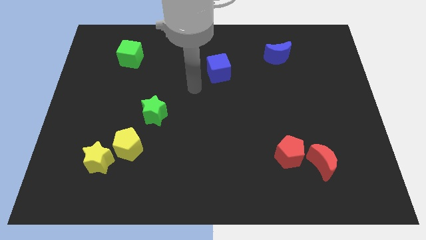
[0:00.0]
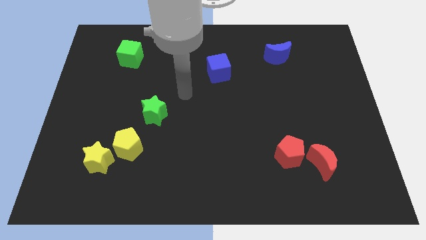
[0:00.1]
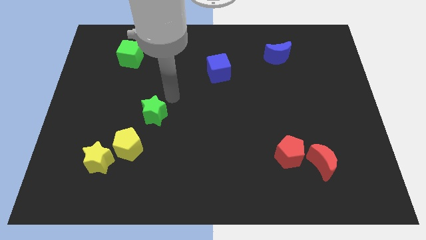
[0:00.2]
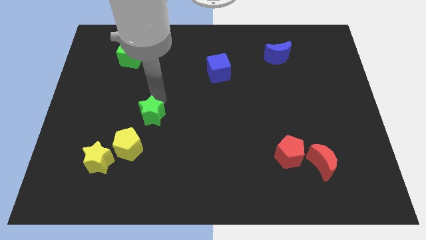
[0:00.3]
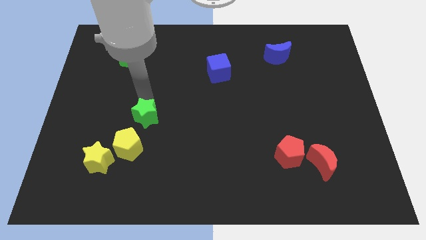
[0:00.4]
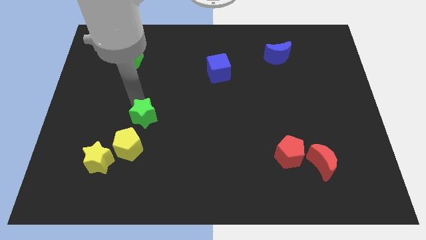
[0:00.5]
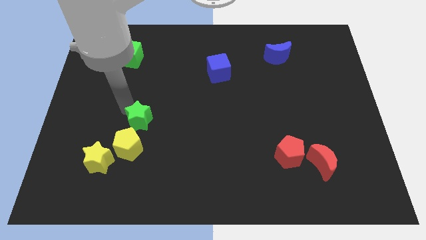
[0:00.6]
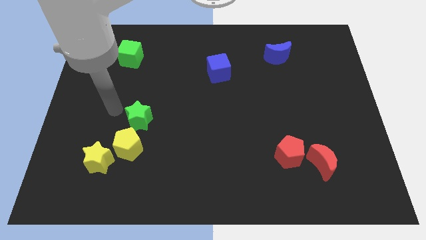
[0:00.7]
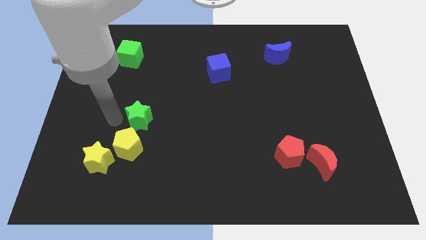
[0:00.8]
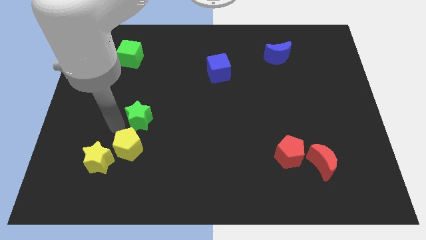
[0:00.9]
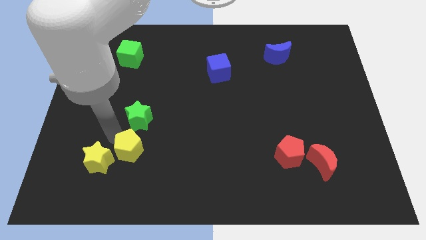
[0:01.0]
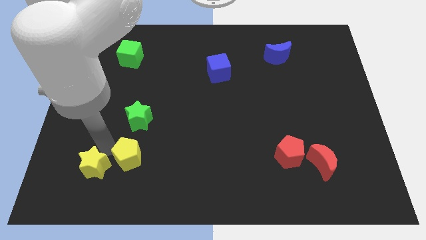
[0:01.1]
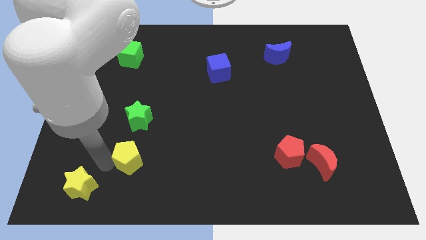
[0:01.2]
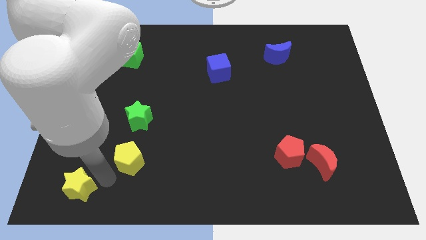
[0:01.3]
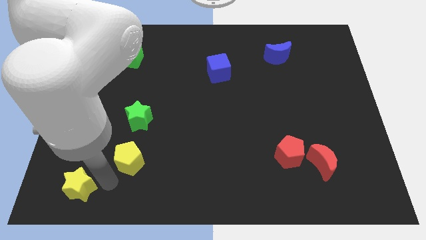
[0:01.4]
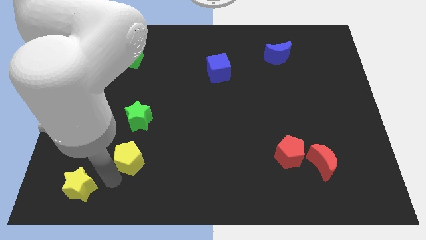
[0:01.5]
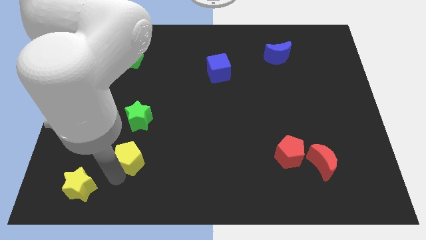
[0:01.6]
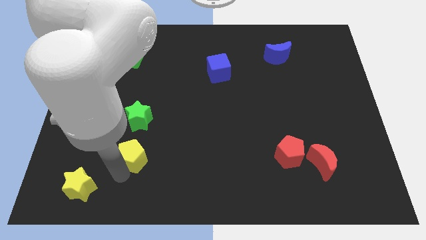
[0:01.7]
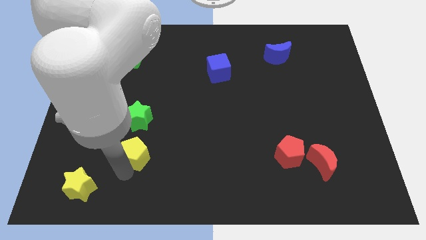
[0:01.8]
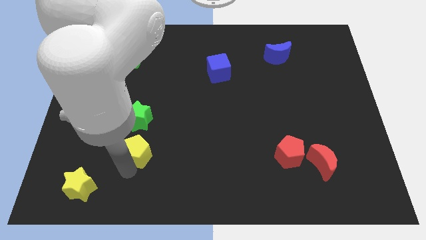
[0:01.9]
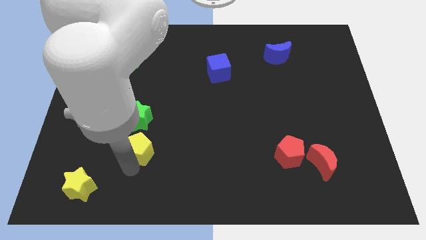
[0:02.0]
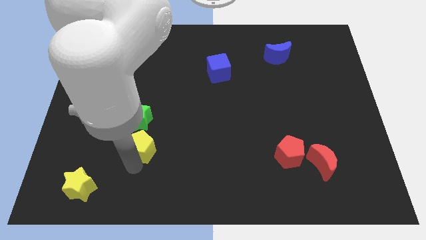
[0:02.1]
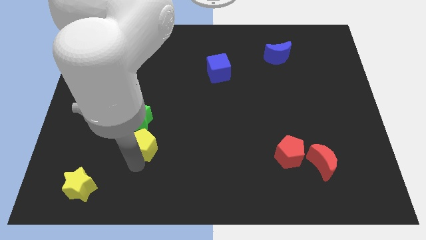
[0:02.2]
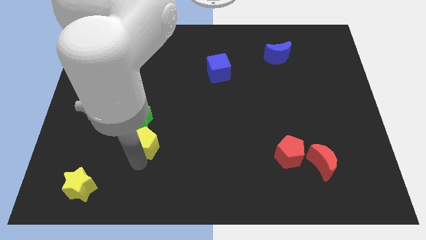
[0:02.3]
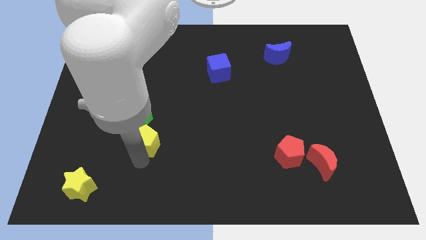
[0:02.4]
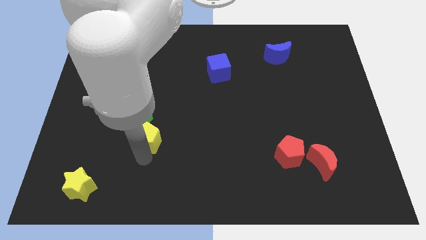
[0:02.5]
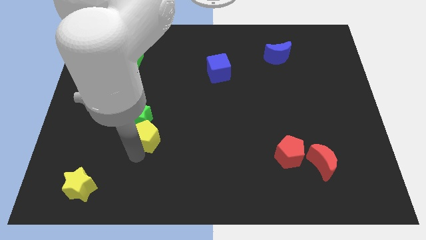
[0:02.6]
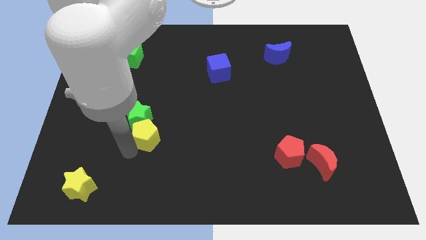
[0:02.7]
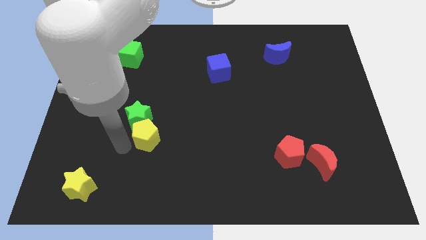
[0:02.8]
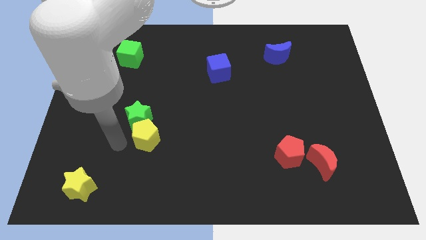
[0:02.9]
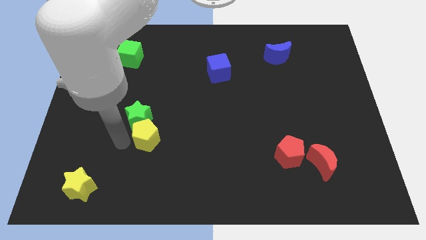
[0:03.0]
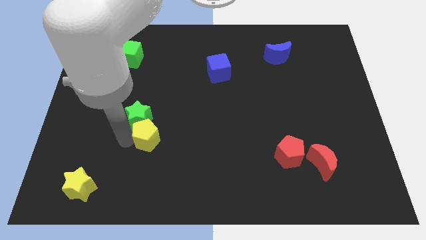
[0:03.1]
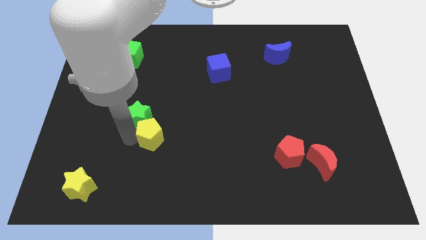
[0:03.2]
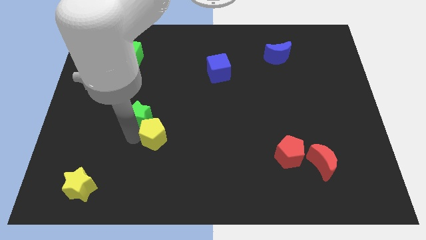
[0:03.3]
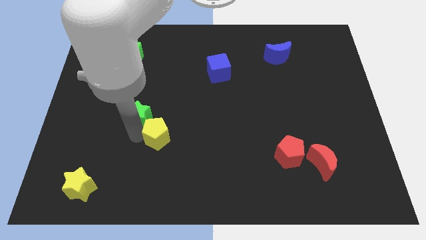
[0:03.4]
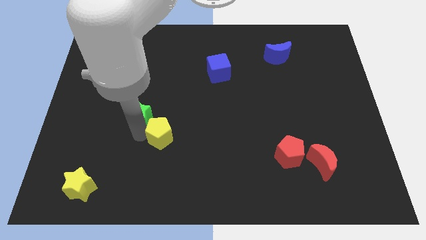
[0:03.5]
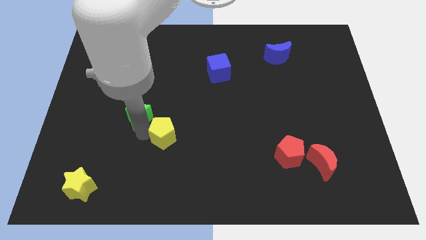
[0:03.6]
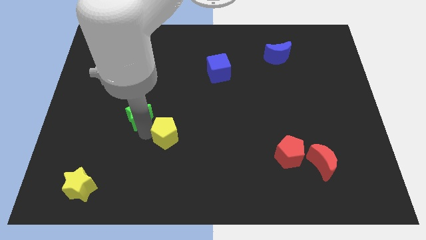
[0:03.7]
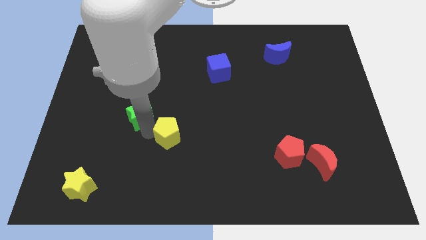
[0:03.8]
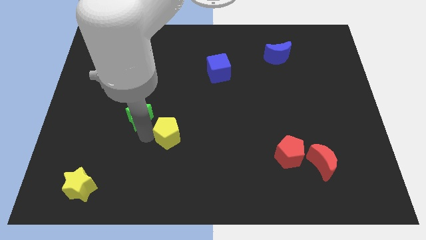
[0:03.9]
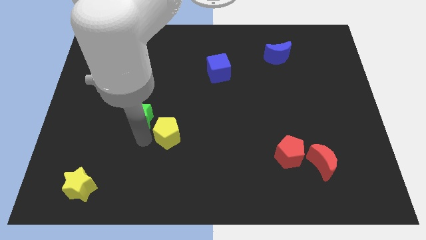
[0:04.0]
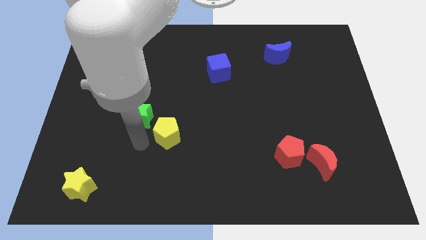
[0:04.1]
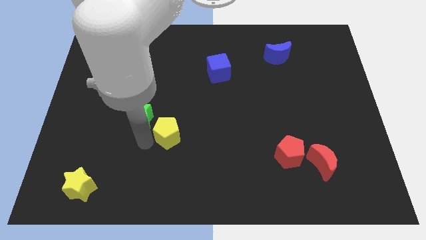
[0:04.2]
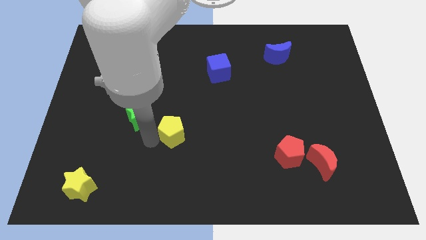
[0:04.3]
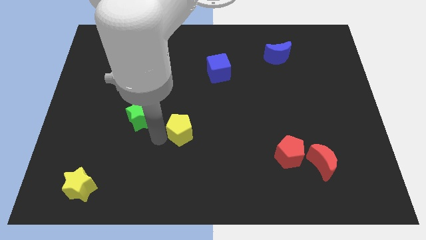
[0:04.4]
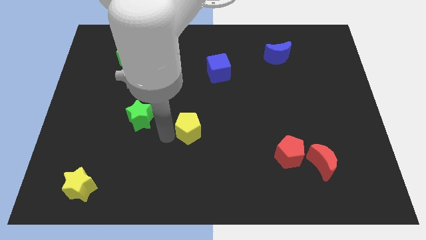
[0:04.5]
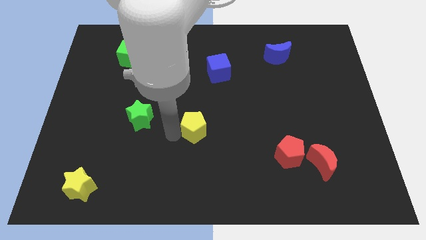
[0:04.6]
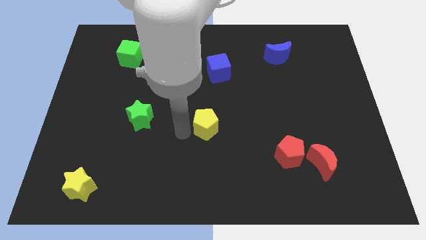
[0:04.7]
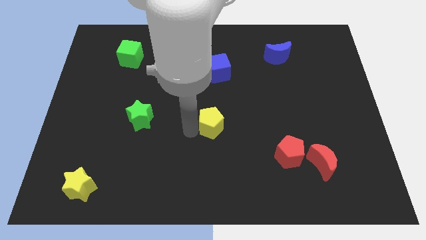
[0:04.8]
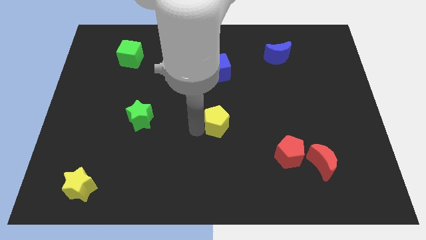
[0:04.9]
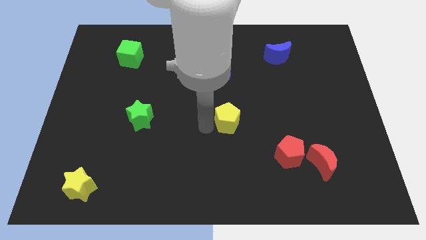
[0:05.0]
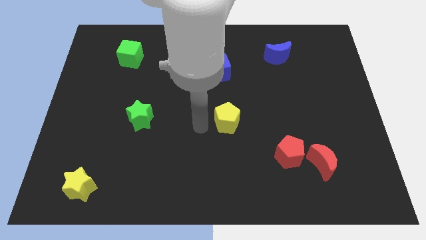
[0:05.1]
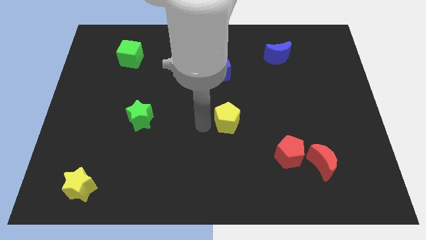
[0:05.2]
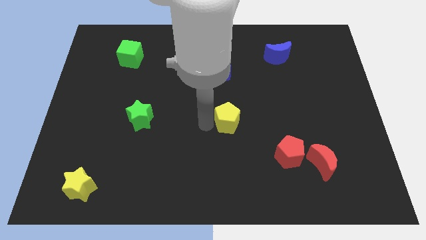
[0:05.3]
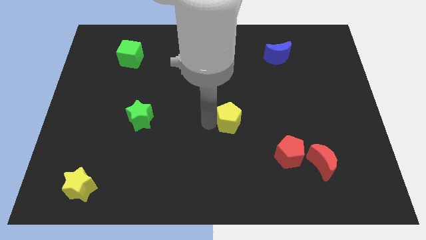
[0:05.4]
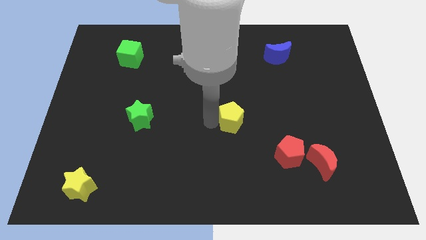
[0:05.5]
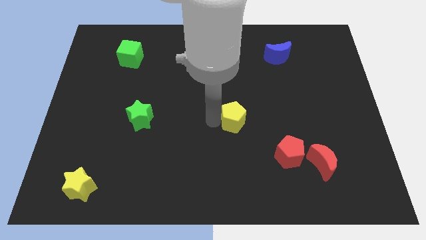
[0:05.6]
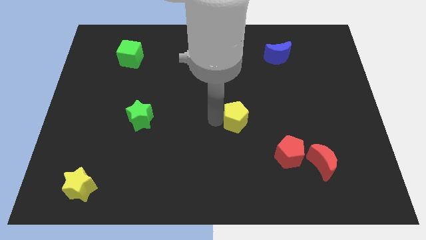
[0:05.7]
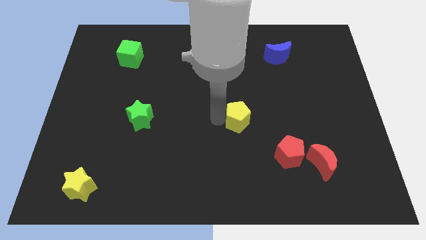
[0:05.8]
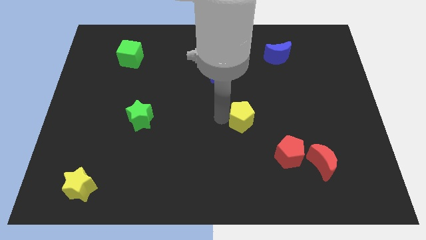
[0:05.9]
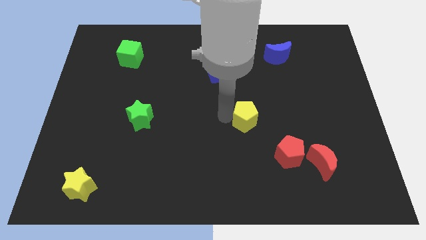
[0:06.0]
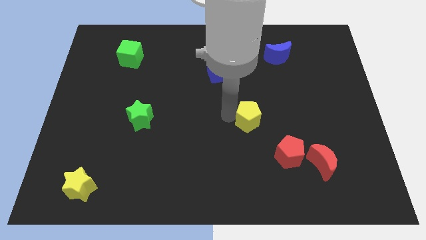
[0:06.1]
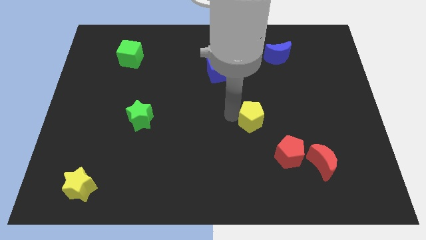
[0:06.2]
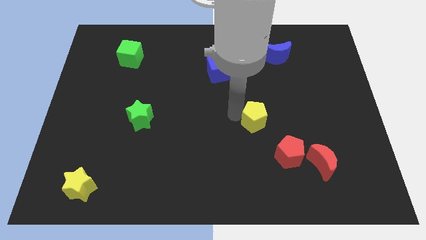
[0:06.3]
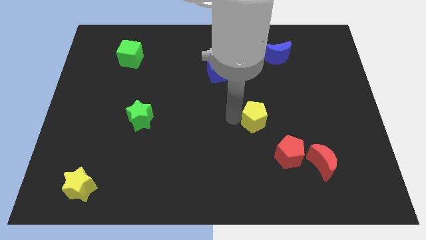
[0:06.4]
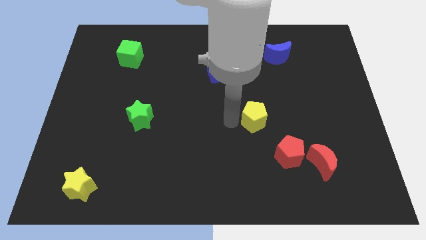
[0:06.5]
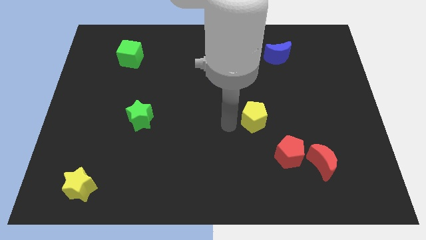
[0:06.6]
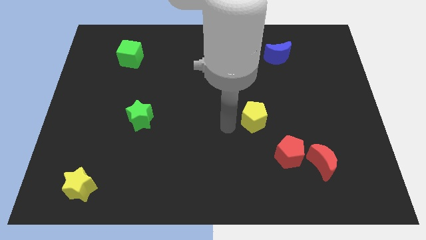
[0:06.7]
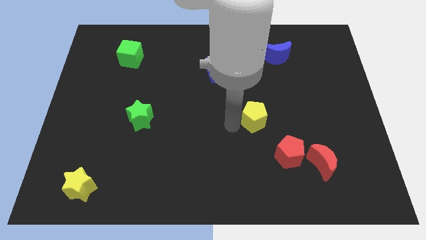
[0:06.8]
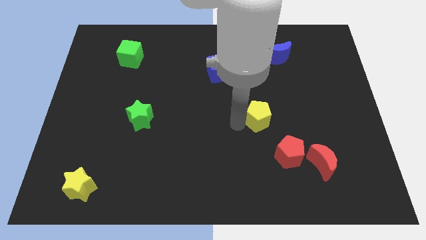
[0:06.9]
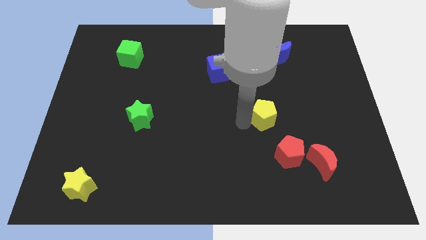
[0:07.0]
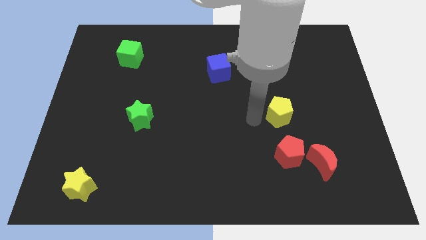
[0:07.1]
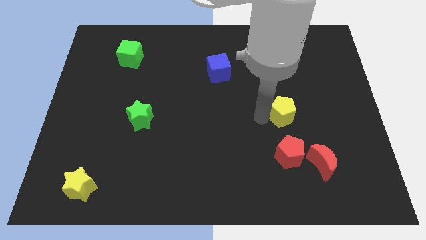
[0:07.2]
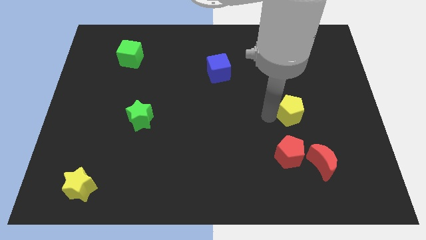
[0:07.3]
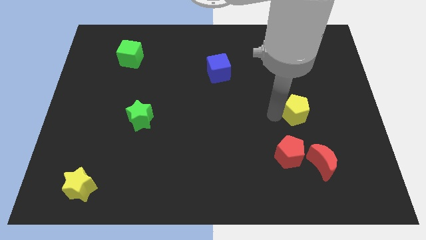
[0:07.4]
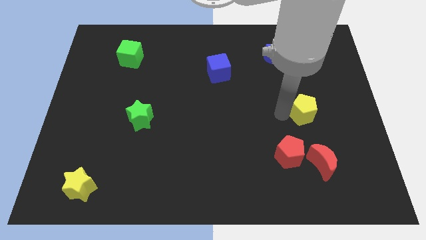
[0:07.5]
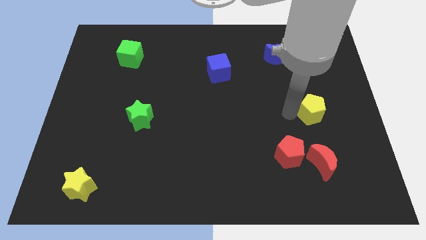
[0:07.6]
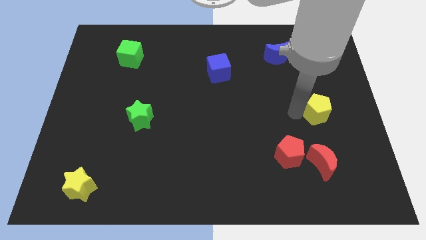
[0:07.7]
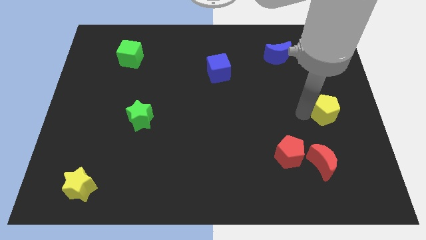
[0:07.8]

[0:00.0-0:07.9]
put the yellow pentagon to the right side of the board

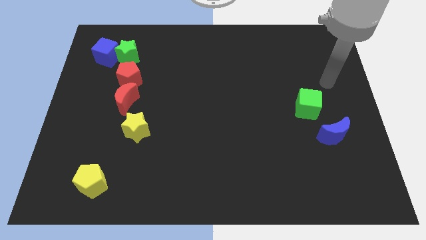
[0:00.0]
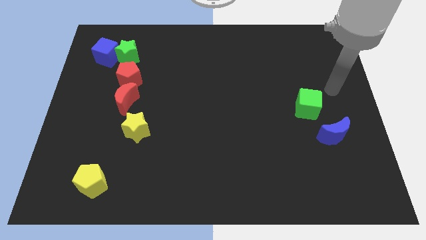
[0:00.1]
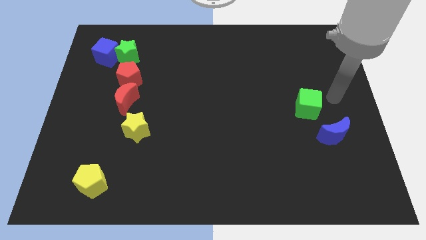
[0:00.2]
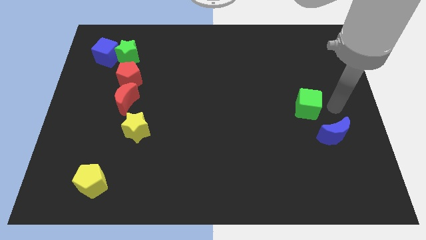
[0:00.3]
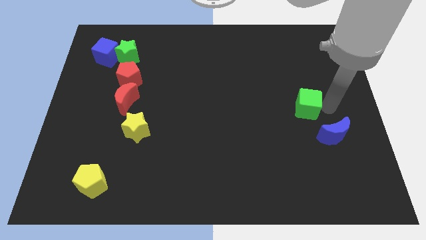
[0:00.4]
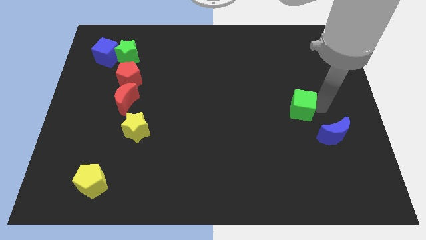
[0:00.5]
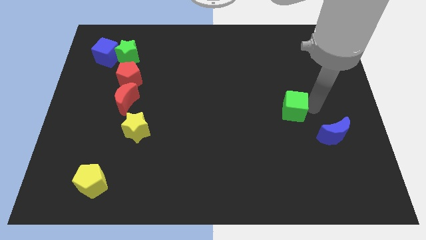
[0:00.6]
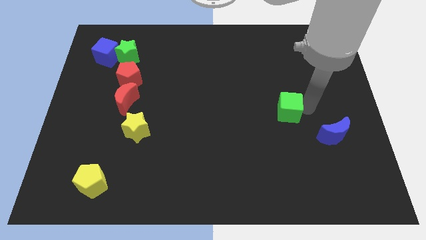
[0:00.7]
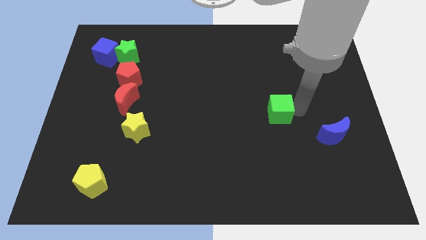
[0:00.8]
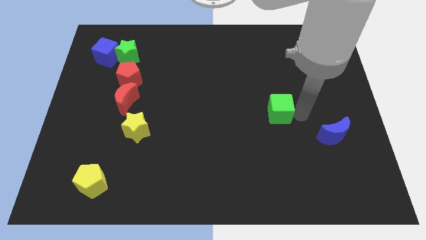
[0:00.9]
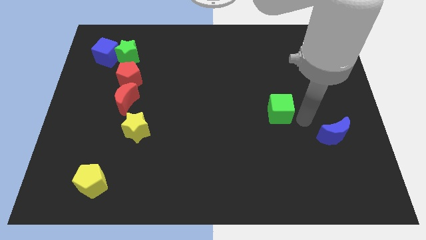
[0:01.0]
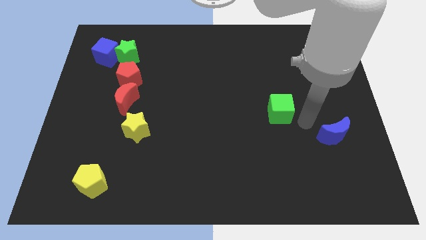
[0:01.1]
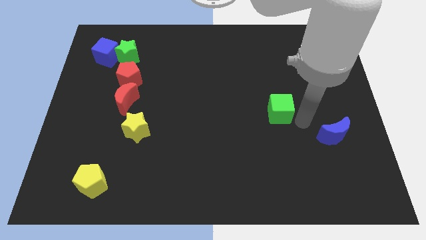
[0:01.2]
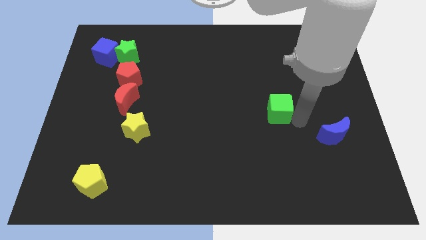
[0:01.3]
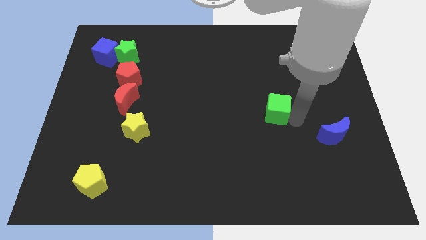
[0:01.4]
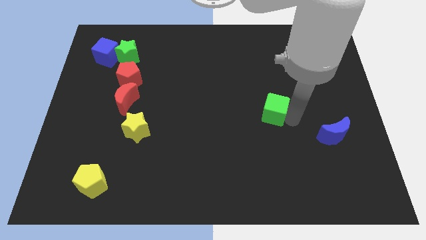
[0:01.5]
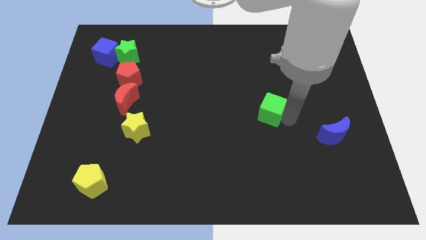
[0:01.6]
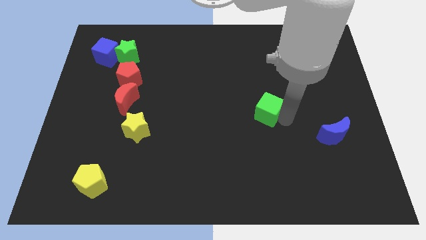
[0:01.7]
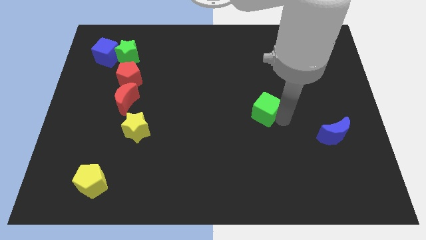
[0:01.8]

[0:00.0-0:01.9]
slide the green cube to the middle
